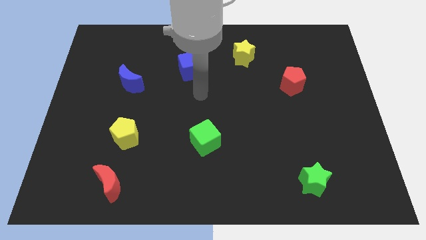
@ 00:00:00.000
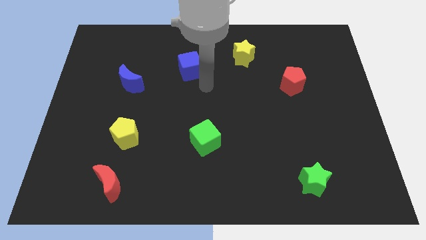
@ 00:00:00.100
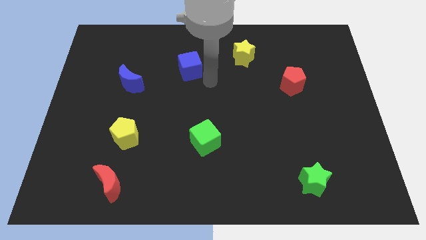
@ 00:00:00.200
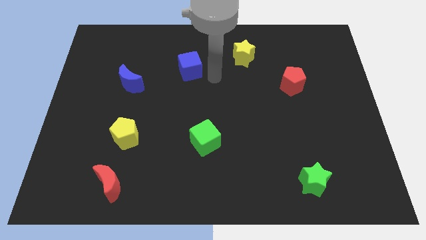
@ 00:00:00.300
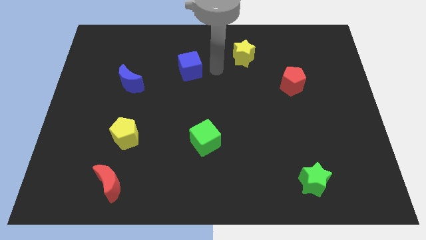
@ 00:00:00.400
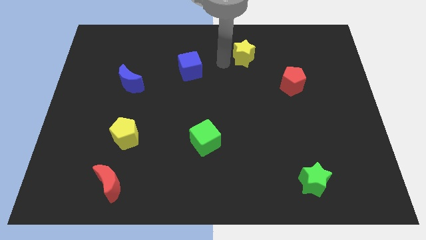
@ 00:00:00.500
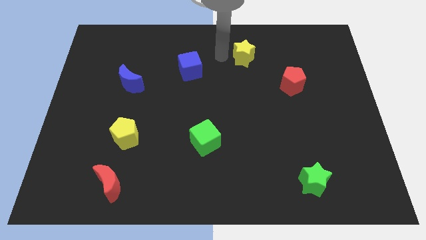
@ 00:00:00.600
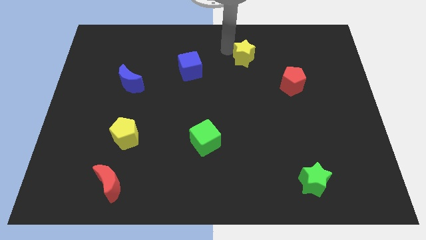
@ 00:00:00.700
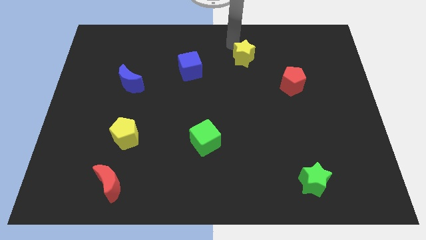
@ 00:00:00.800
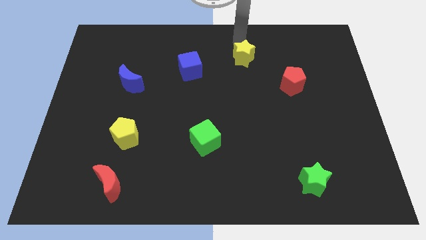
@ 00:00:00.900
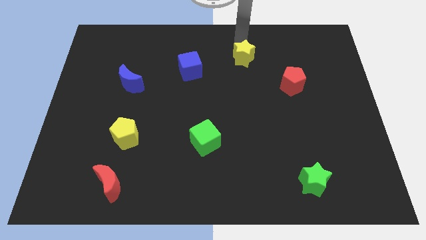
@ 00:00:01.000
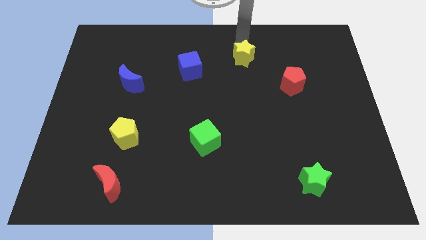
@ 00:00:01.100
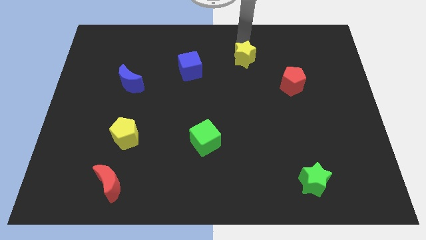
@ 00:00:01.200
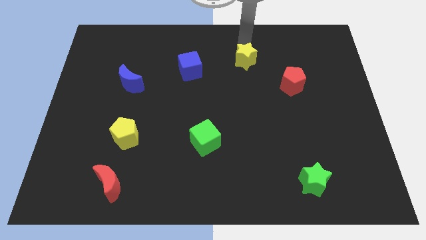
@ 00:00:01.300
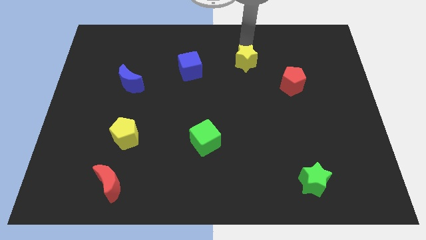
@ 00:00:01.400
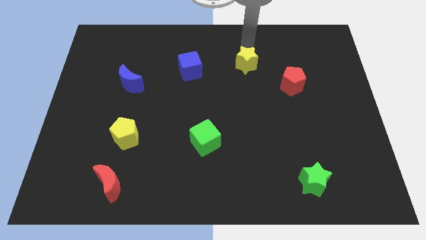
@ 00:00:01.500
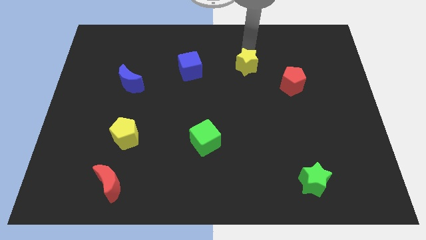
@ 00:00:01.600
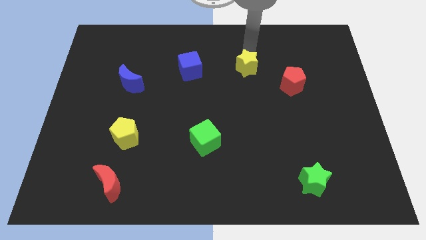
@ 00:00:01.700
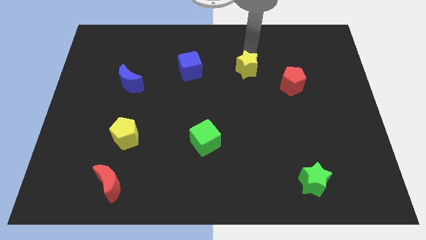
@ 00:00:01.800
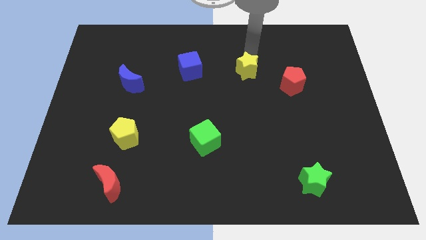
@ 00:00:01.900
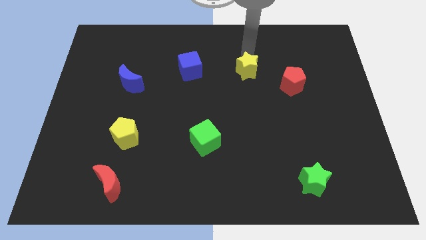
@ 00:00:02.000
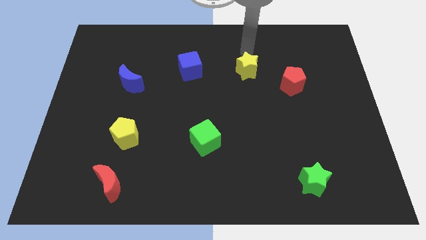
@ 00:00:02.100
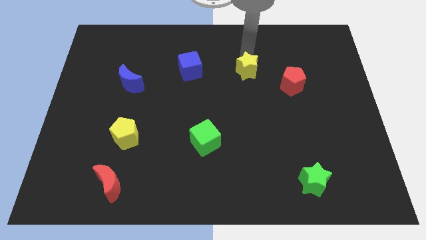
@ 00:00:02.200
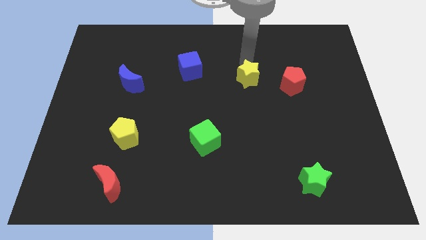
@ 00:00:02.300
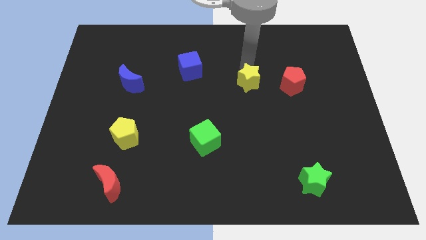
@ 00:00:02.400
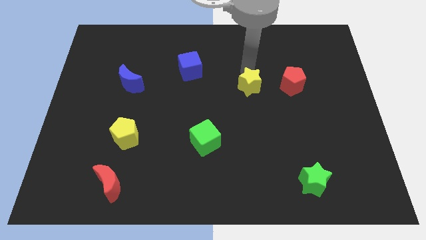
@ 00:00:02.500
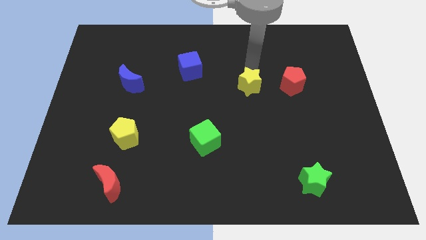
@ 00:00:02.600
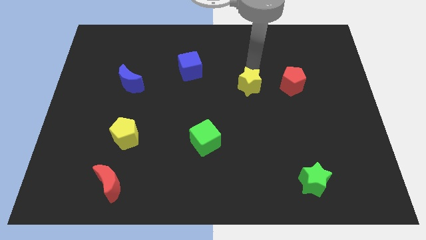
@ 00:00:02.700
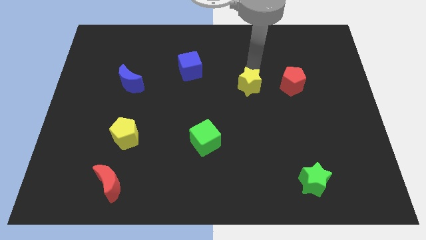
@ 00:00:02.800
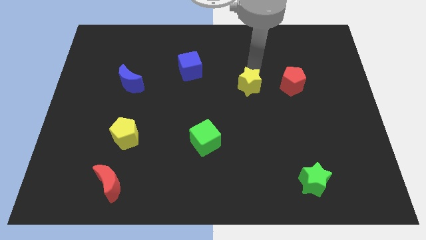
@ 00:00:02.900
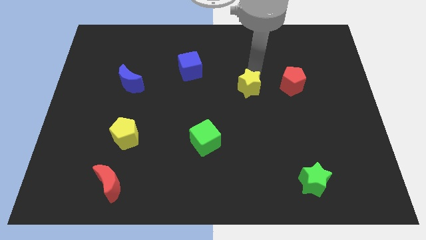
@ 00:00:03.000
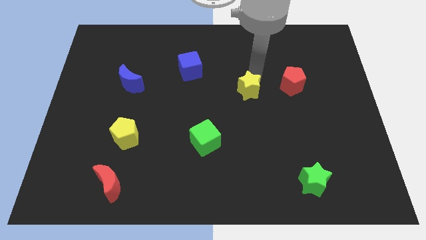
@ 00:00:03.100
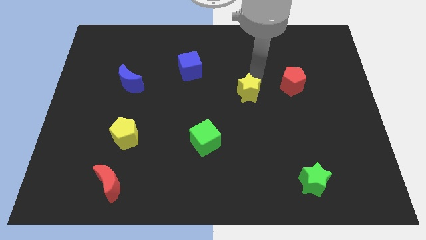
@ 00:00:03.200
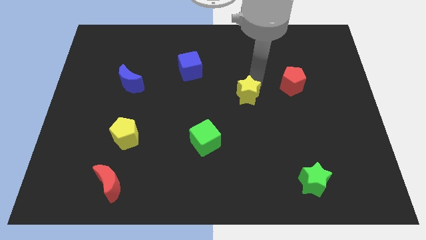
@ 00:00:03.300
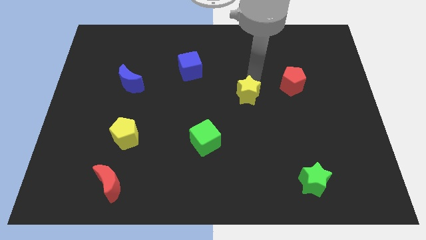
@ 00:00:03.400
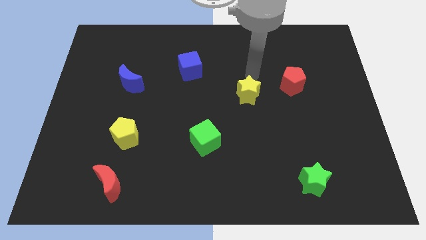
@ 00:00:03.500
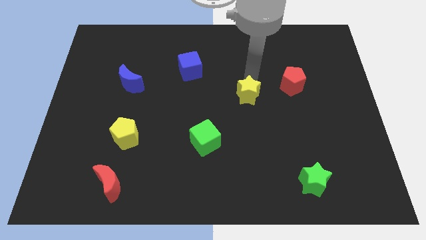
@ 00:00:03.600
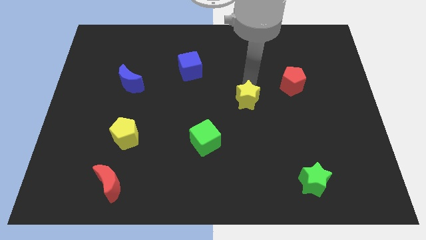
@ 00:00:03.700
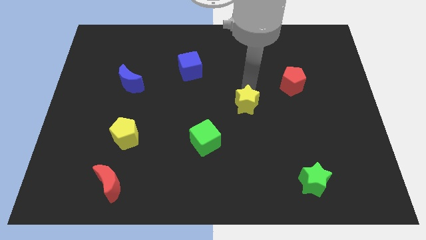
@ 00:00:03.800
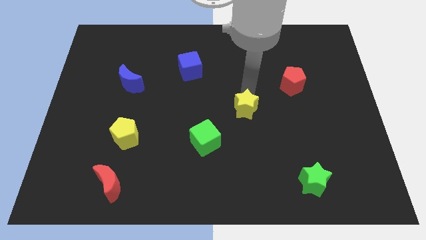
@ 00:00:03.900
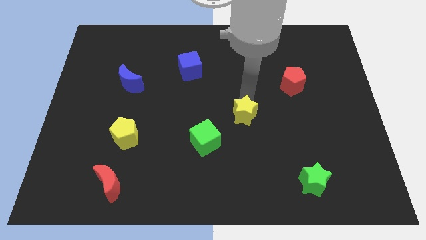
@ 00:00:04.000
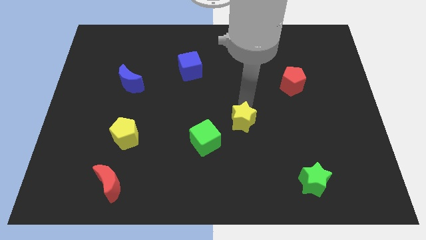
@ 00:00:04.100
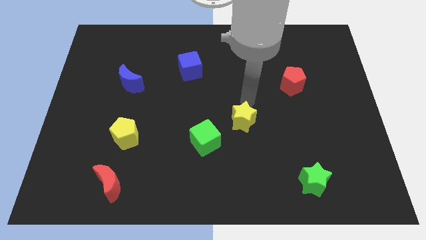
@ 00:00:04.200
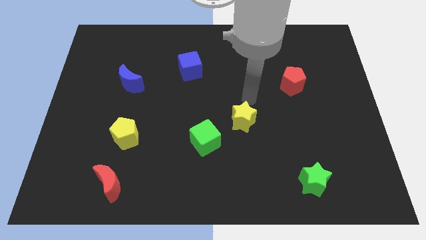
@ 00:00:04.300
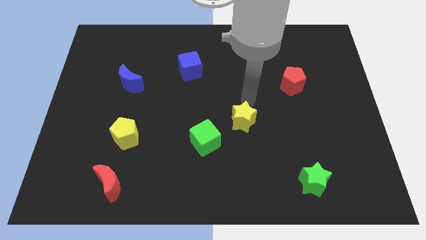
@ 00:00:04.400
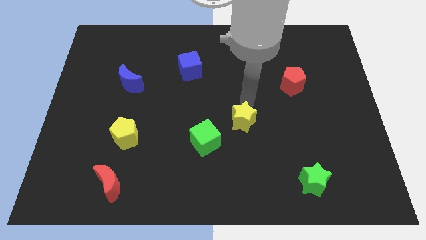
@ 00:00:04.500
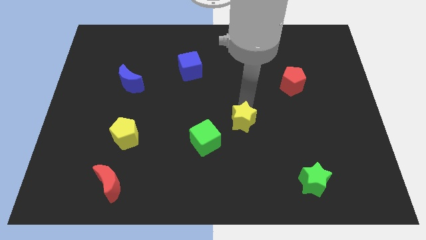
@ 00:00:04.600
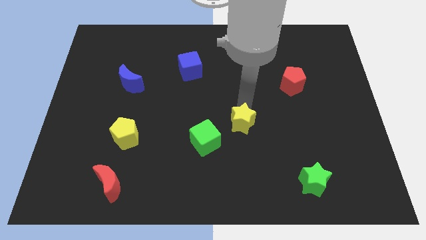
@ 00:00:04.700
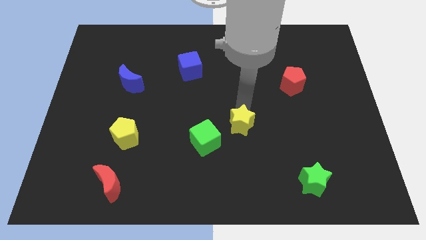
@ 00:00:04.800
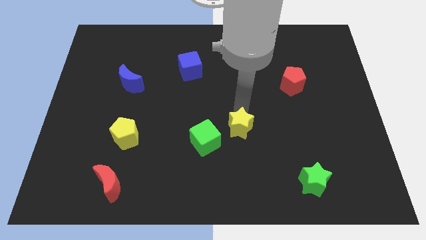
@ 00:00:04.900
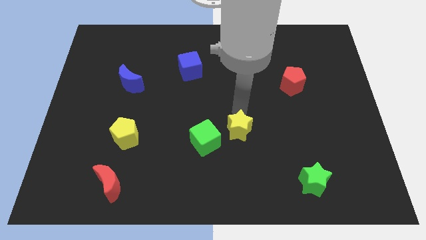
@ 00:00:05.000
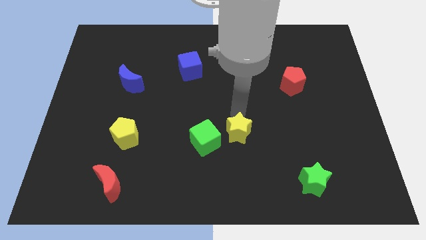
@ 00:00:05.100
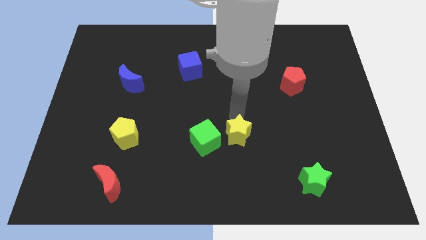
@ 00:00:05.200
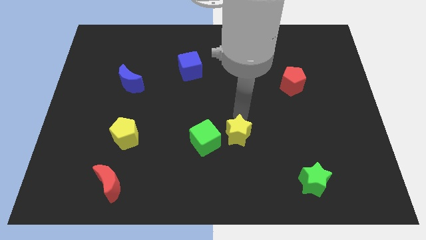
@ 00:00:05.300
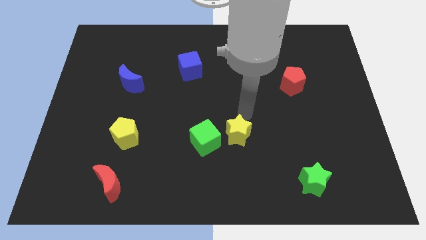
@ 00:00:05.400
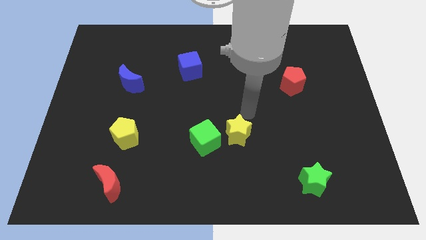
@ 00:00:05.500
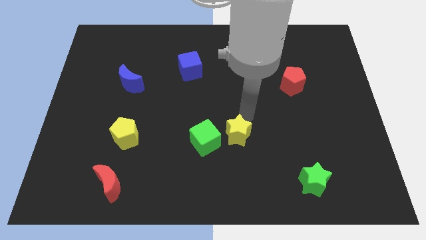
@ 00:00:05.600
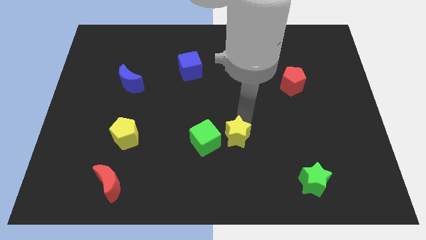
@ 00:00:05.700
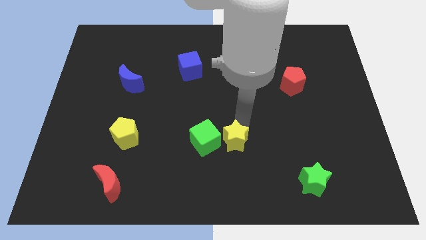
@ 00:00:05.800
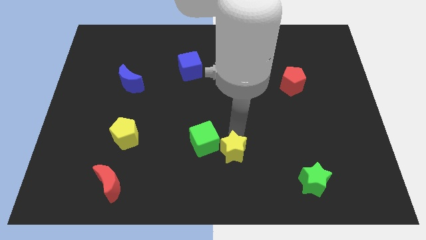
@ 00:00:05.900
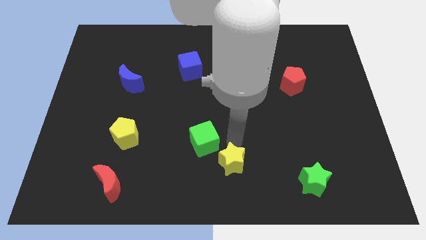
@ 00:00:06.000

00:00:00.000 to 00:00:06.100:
slide the yellow star to the bottom side
